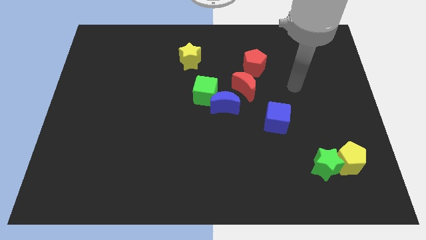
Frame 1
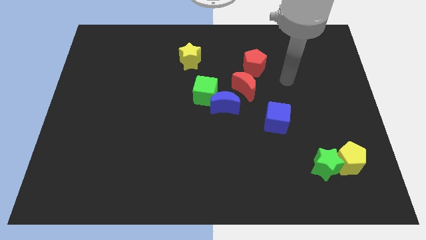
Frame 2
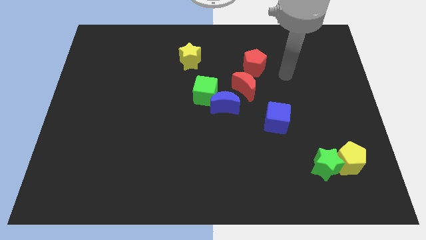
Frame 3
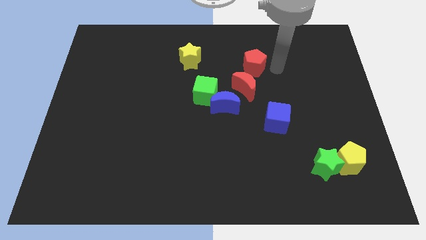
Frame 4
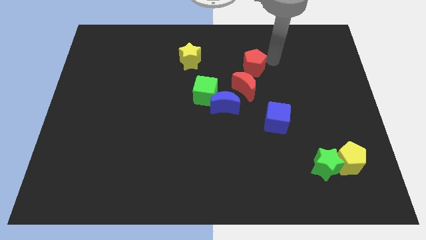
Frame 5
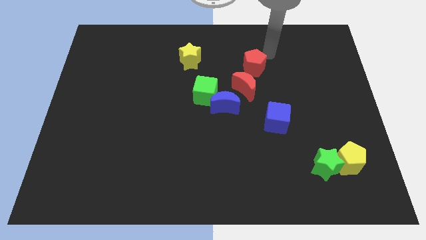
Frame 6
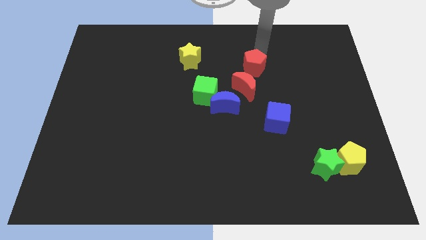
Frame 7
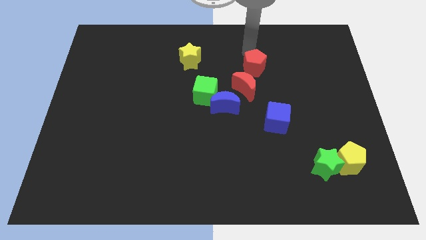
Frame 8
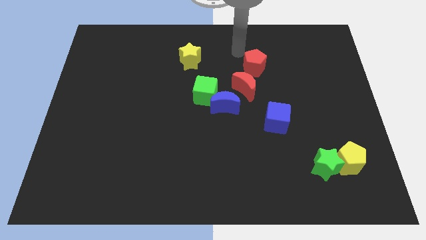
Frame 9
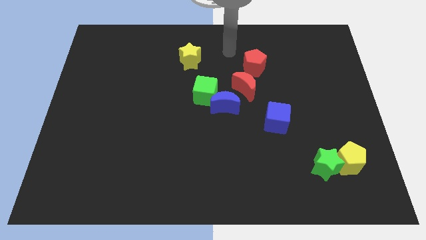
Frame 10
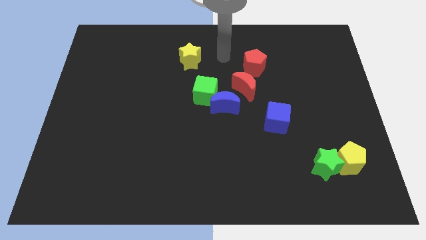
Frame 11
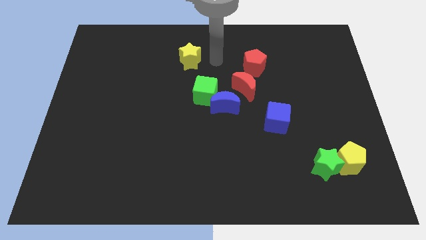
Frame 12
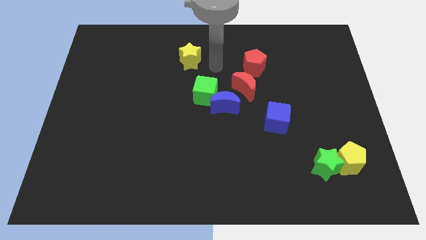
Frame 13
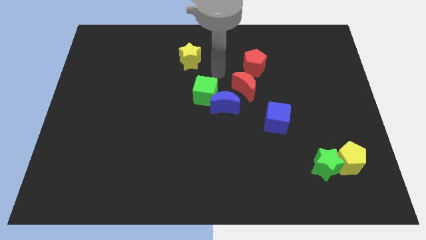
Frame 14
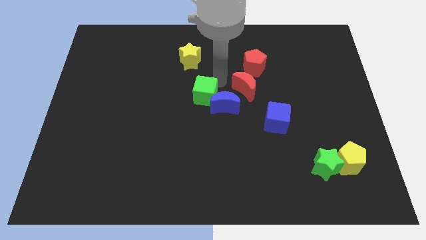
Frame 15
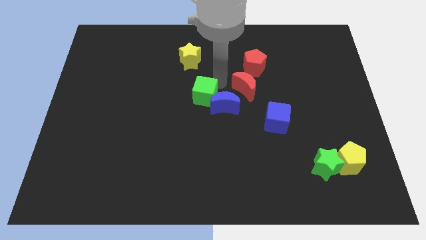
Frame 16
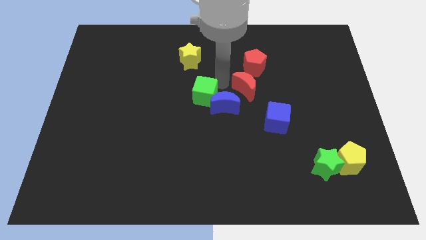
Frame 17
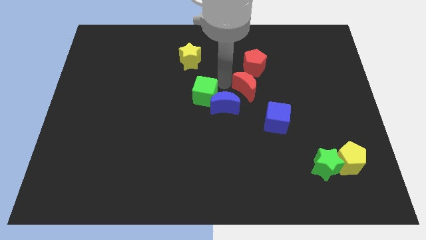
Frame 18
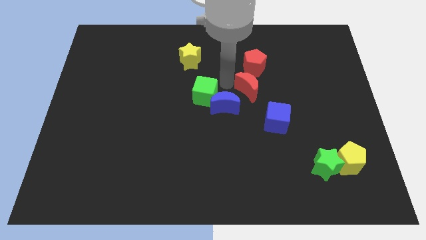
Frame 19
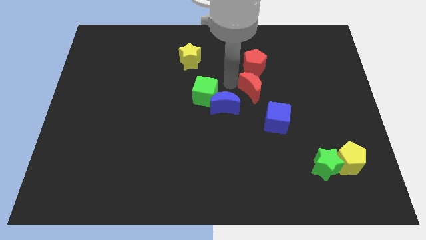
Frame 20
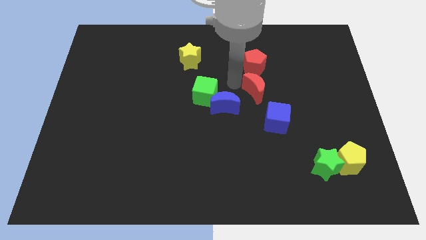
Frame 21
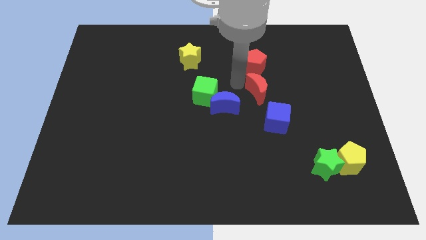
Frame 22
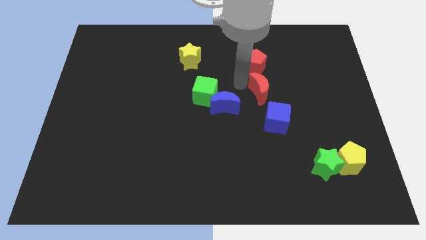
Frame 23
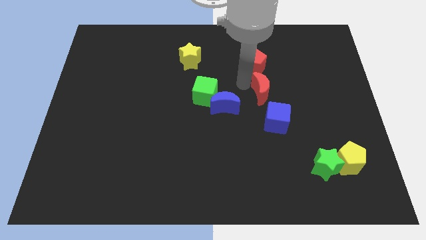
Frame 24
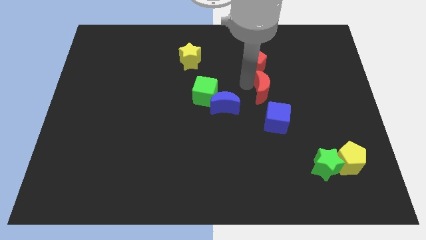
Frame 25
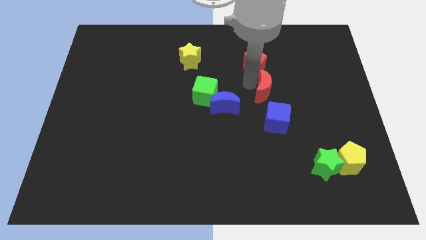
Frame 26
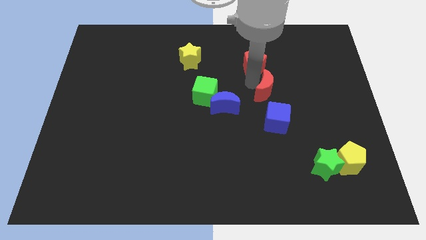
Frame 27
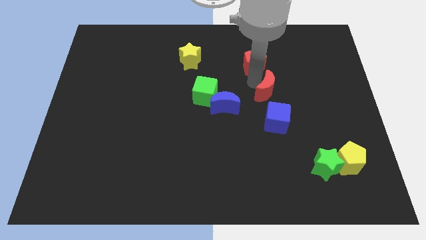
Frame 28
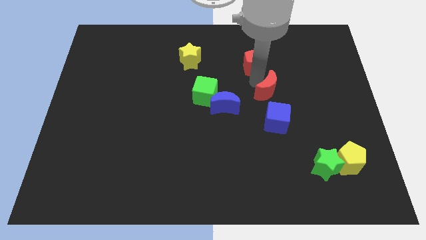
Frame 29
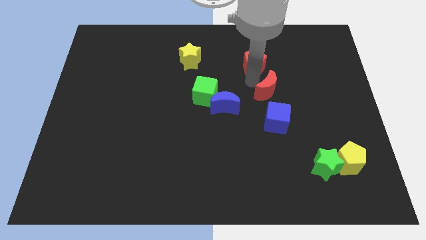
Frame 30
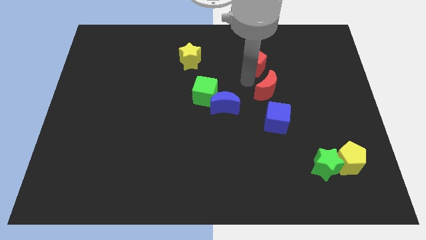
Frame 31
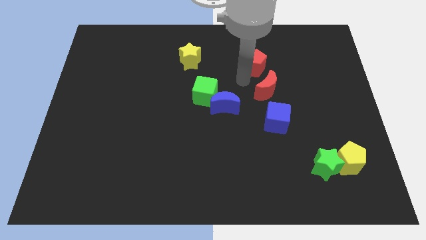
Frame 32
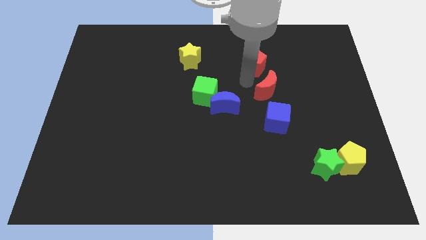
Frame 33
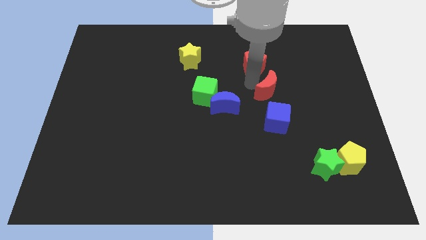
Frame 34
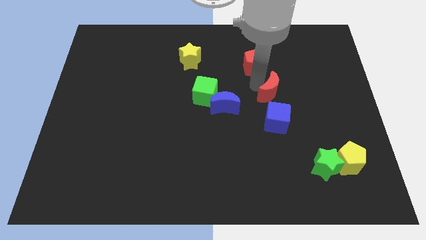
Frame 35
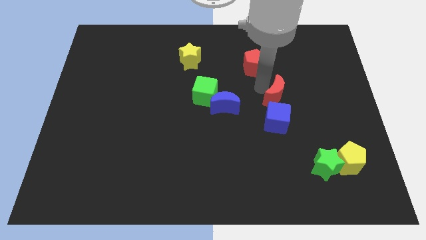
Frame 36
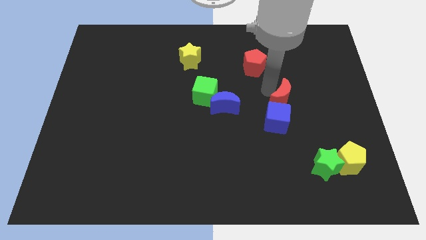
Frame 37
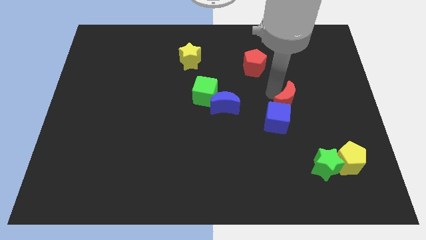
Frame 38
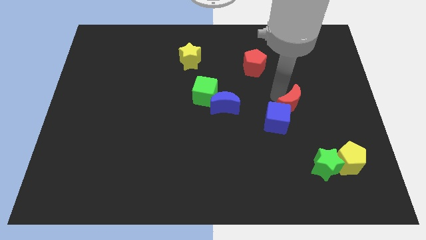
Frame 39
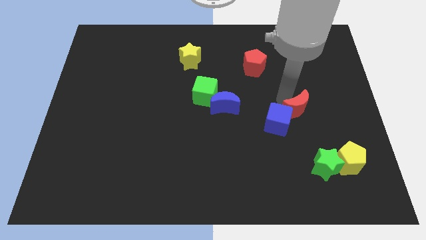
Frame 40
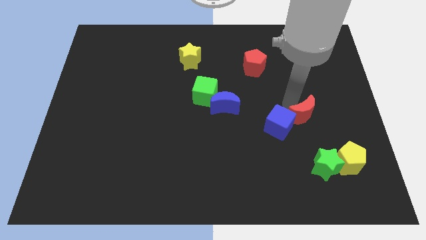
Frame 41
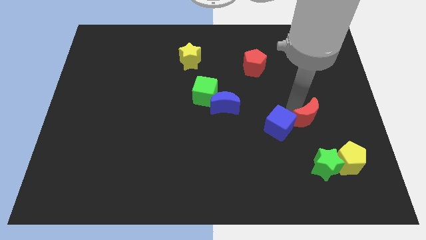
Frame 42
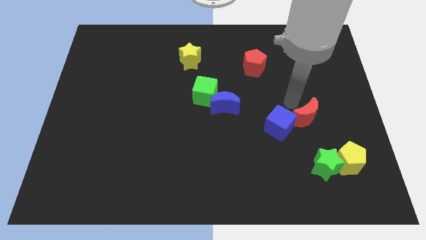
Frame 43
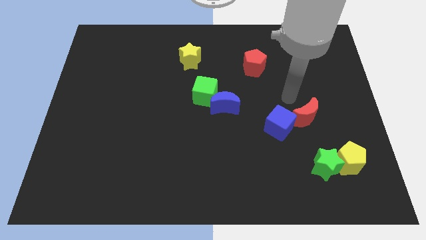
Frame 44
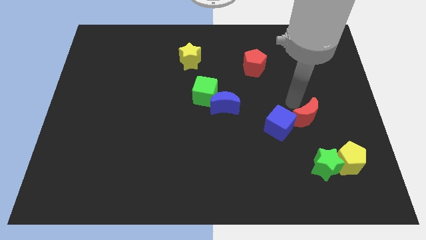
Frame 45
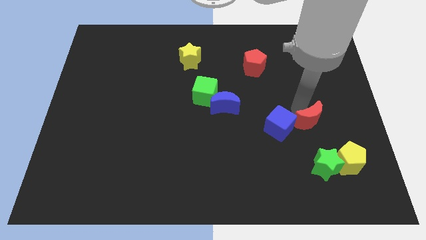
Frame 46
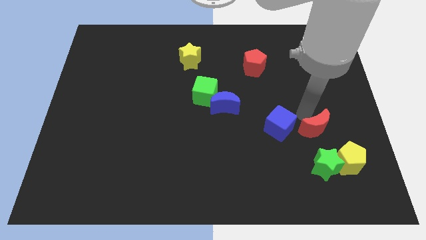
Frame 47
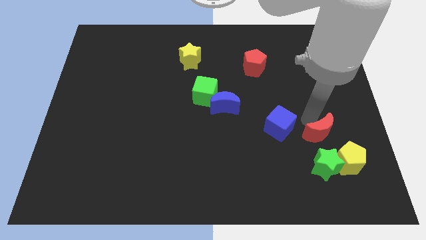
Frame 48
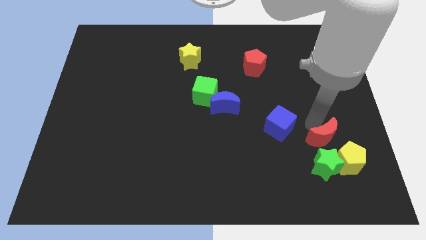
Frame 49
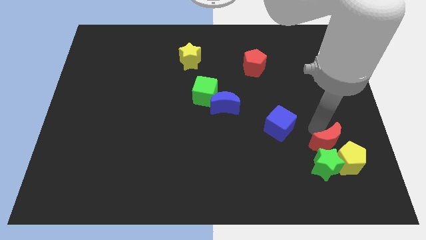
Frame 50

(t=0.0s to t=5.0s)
put the red moon towards the yellow pentagon

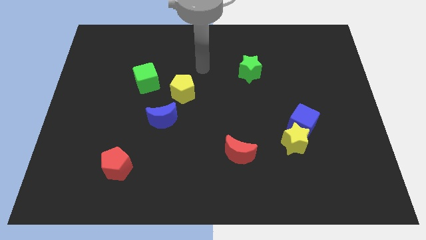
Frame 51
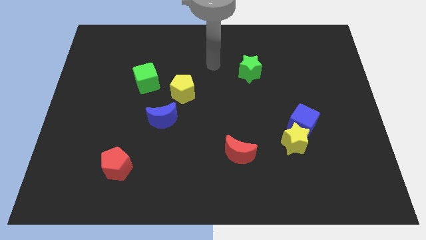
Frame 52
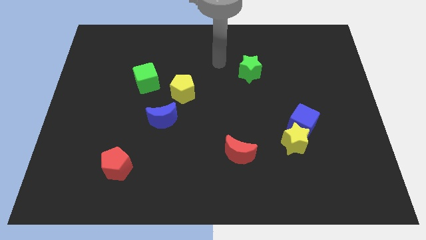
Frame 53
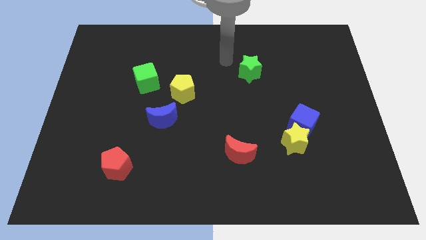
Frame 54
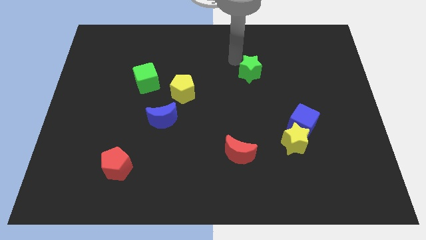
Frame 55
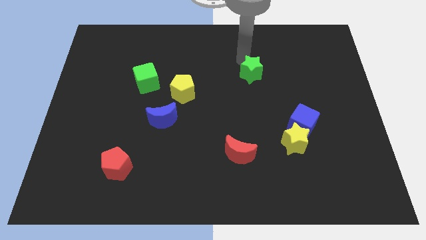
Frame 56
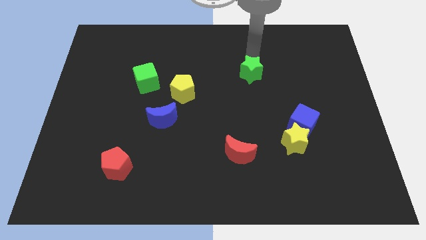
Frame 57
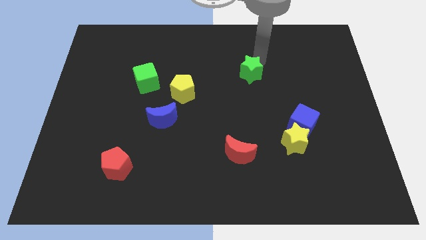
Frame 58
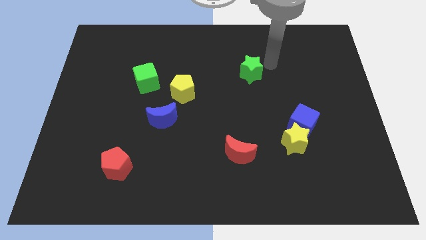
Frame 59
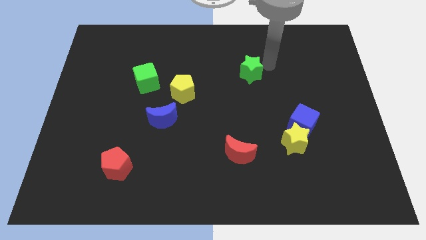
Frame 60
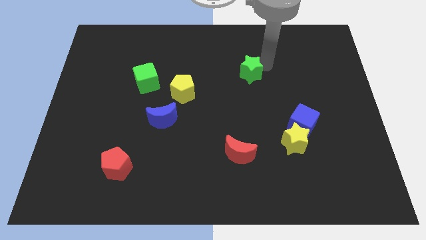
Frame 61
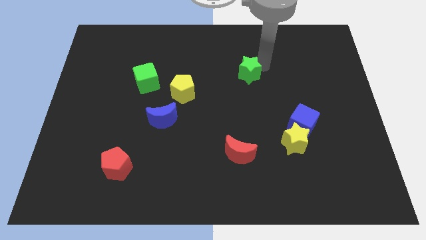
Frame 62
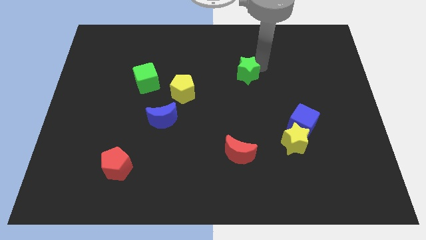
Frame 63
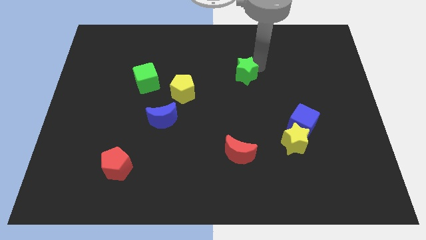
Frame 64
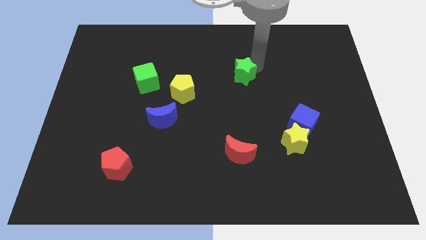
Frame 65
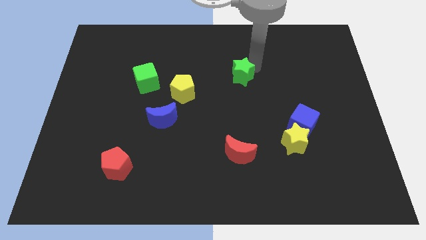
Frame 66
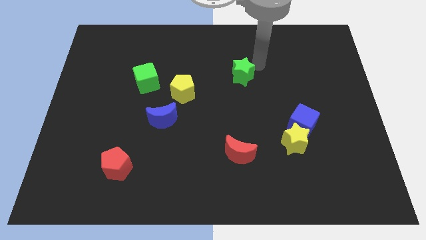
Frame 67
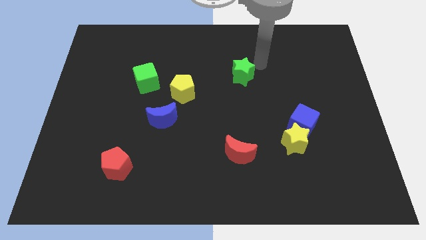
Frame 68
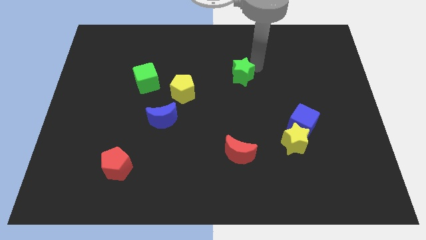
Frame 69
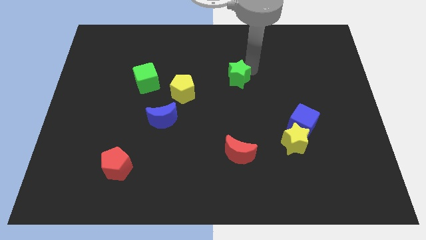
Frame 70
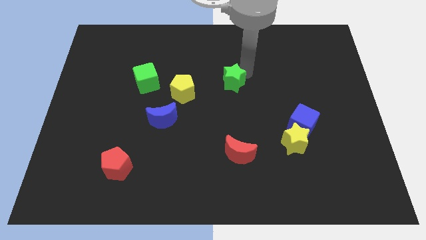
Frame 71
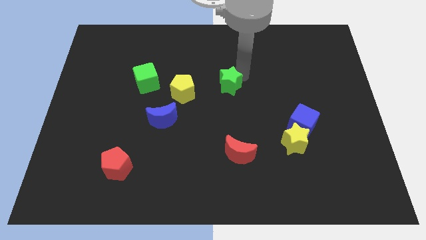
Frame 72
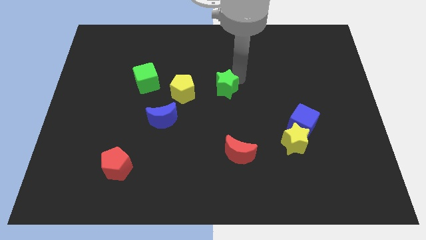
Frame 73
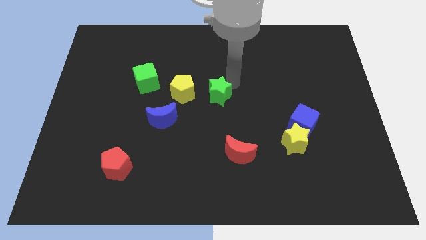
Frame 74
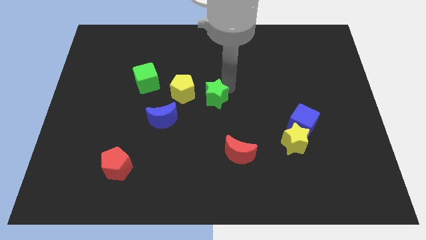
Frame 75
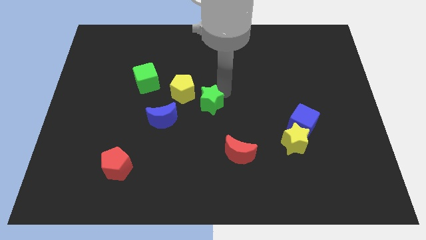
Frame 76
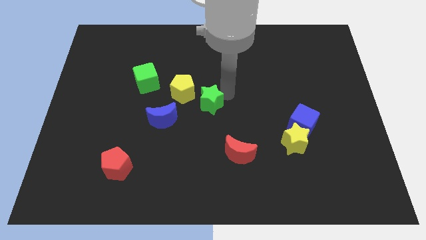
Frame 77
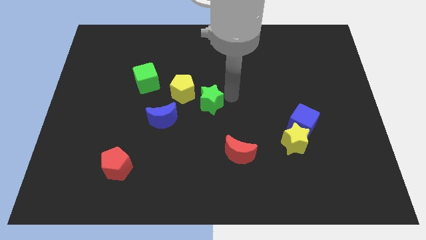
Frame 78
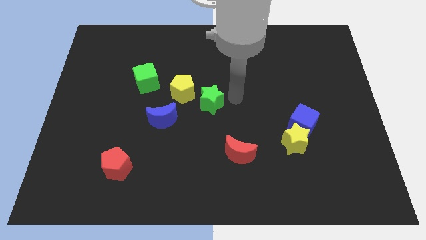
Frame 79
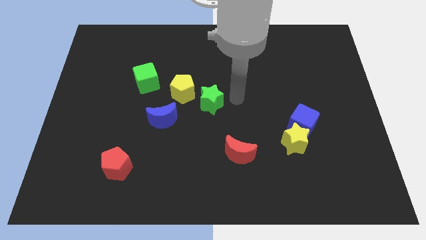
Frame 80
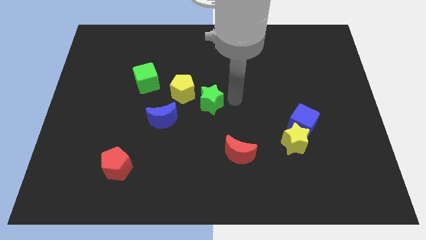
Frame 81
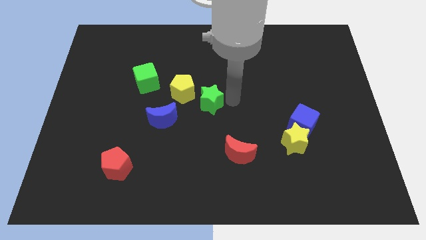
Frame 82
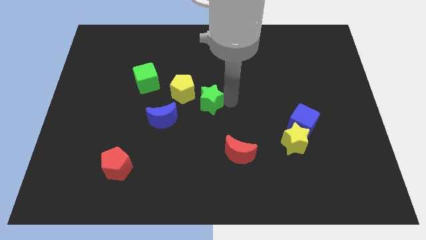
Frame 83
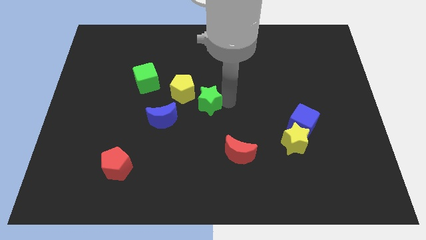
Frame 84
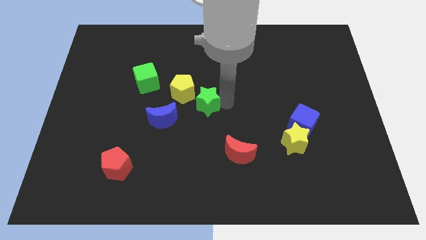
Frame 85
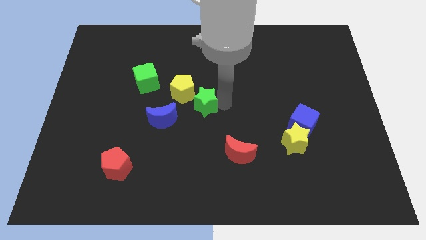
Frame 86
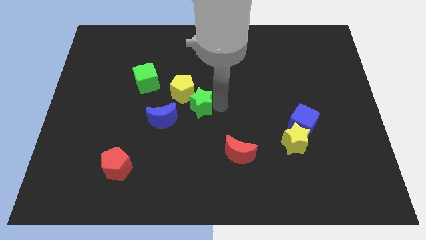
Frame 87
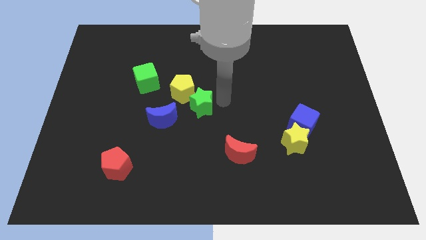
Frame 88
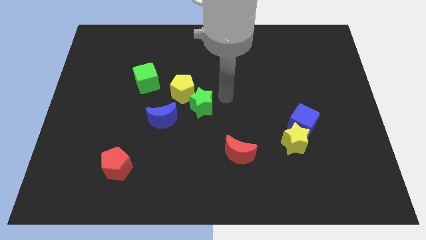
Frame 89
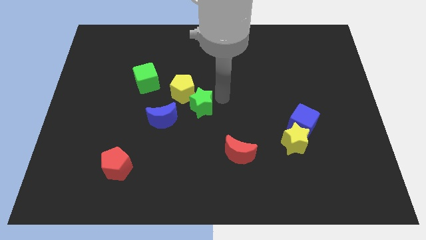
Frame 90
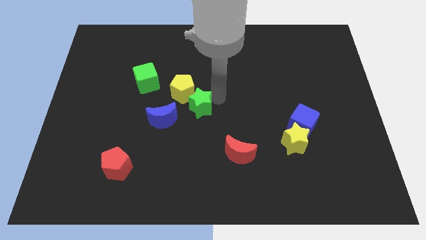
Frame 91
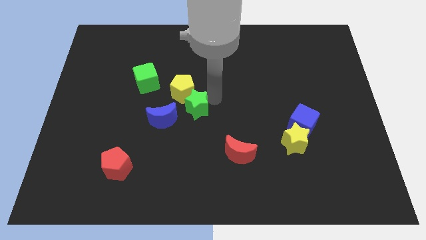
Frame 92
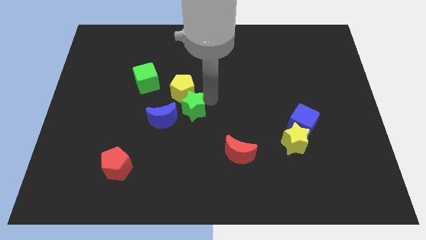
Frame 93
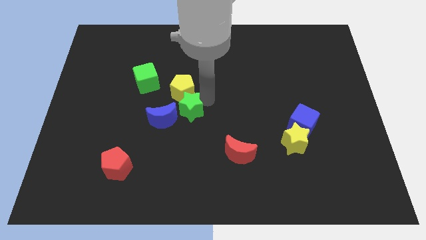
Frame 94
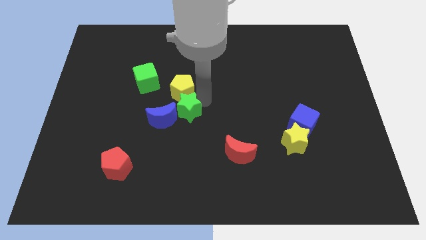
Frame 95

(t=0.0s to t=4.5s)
put the green star next to the blue moon
